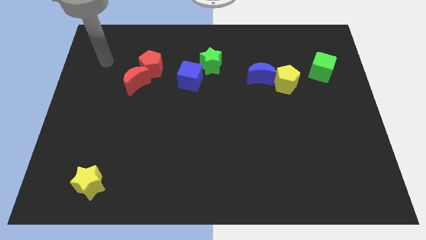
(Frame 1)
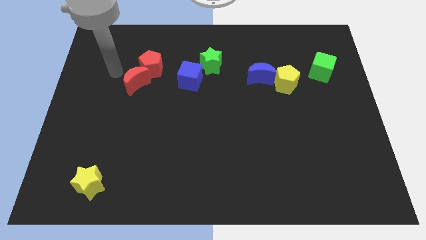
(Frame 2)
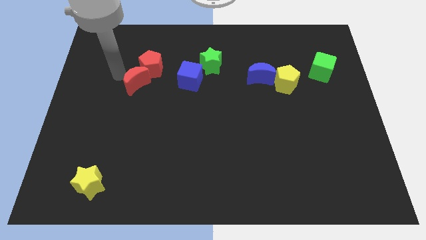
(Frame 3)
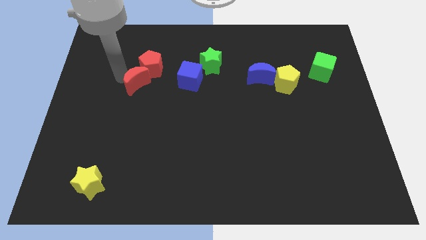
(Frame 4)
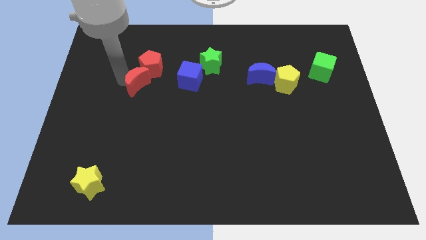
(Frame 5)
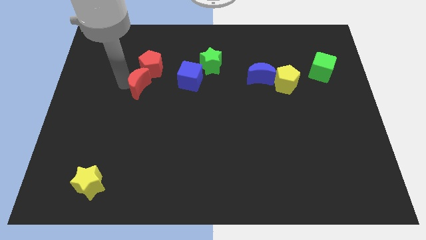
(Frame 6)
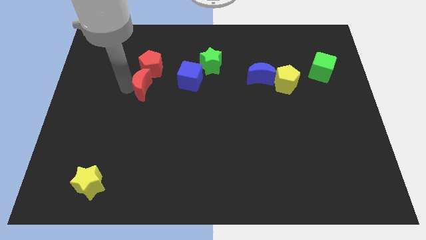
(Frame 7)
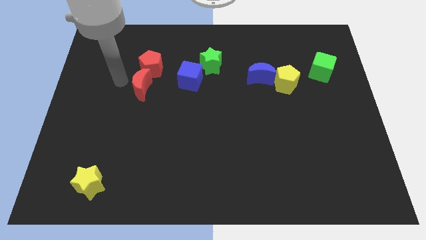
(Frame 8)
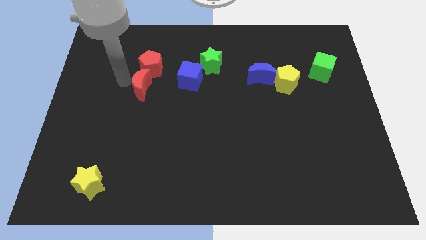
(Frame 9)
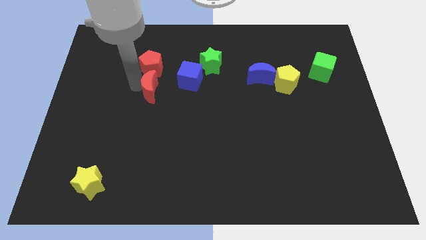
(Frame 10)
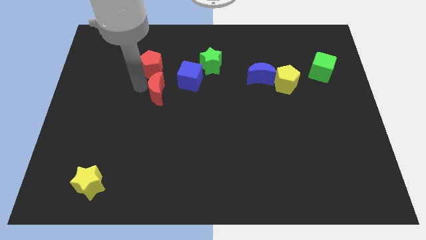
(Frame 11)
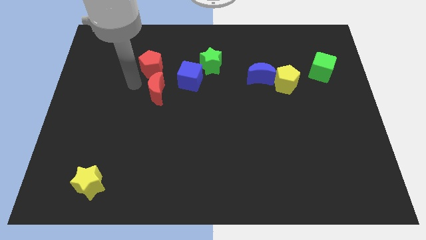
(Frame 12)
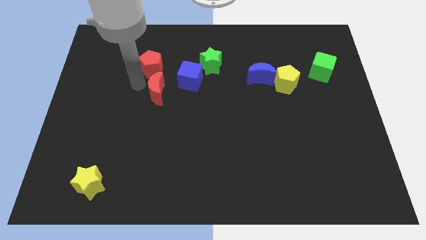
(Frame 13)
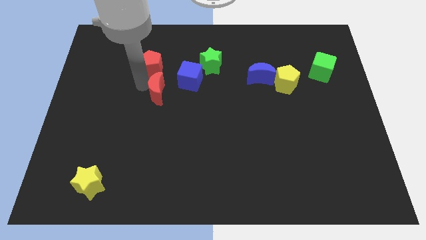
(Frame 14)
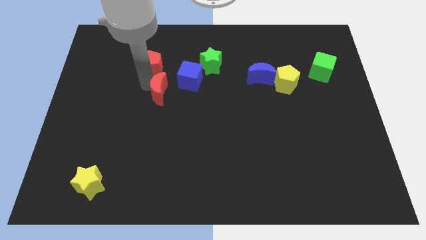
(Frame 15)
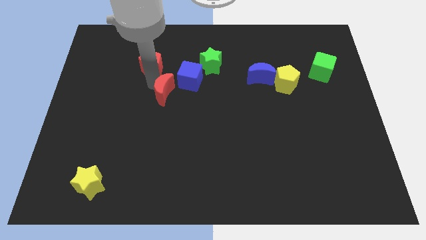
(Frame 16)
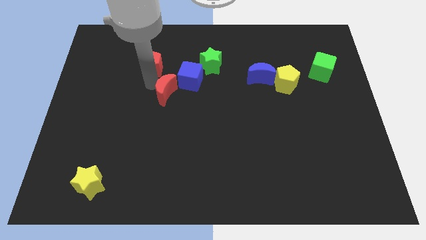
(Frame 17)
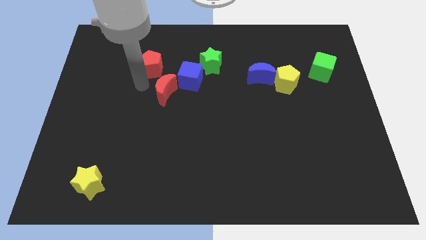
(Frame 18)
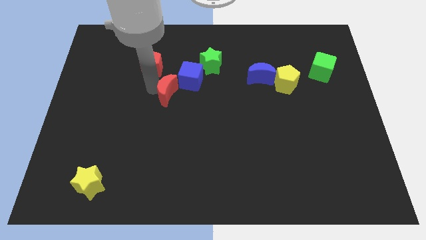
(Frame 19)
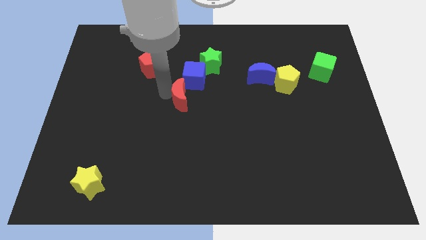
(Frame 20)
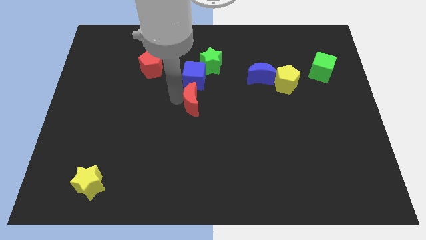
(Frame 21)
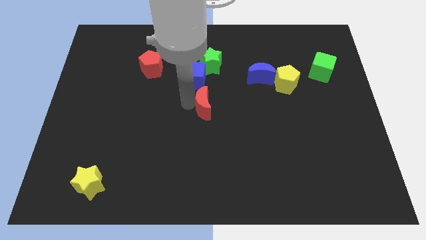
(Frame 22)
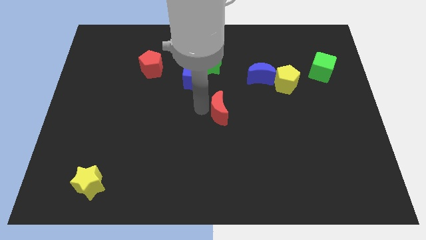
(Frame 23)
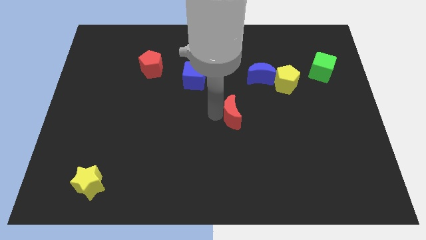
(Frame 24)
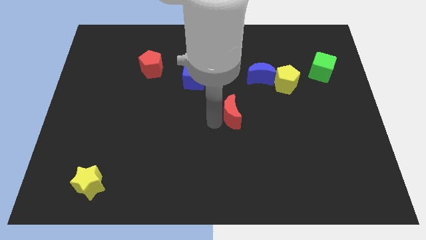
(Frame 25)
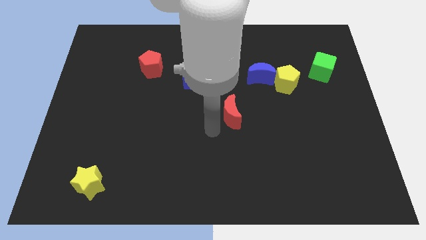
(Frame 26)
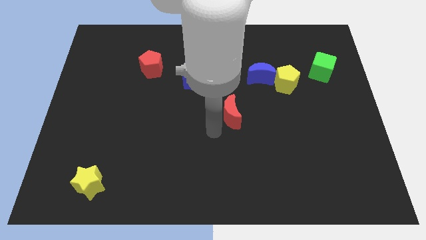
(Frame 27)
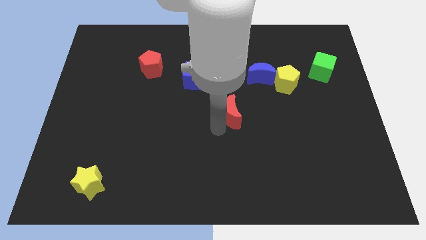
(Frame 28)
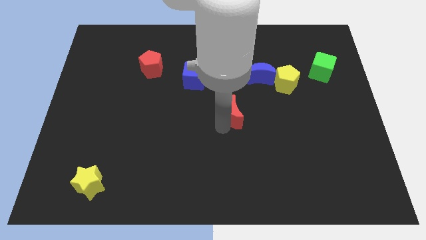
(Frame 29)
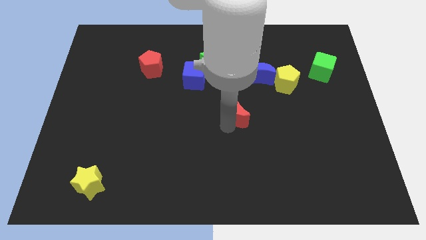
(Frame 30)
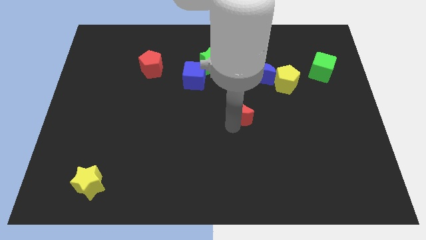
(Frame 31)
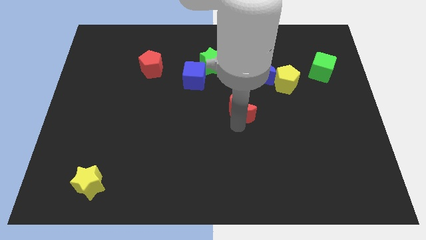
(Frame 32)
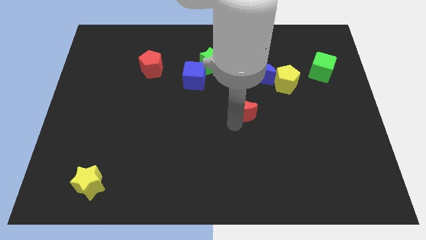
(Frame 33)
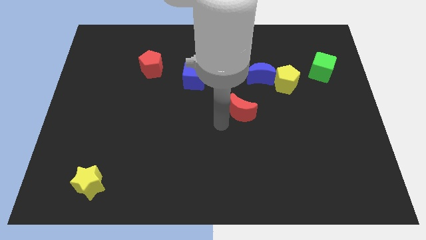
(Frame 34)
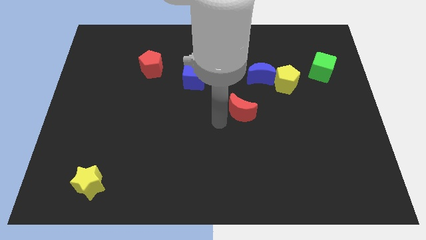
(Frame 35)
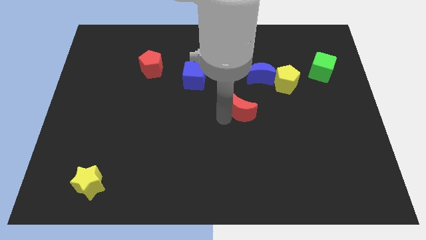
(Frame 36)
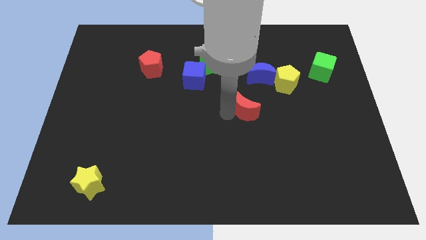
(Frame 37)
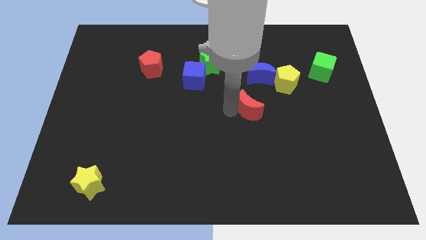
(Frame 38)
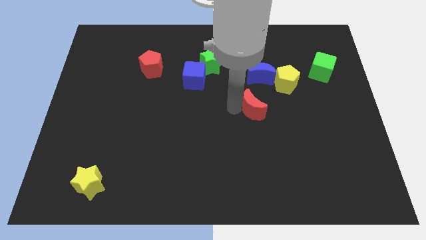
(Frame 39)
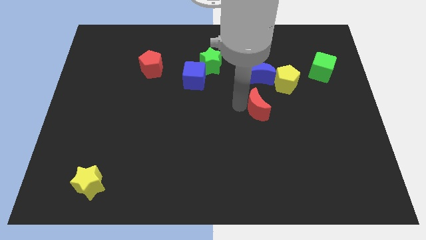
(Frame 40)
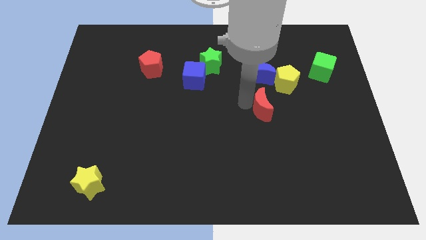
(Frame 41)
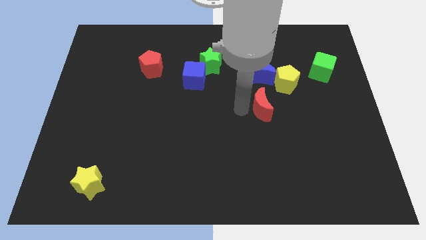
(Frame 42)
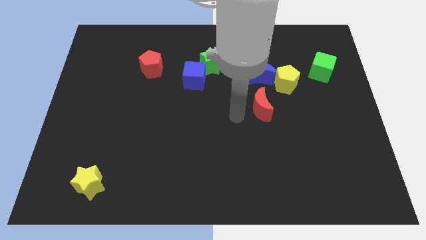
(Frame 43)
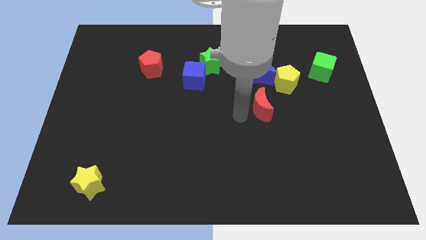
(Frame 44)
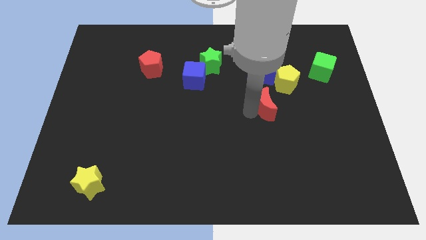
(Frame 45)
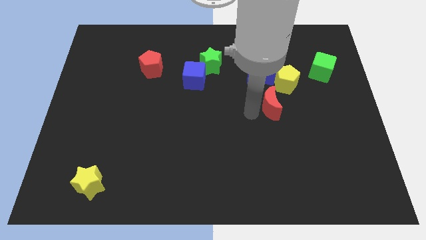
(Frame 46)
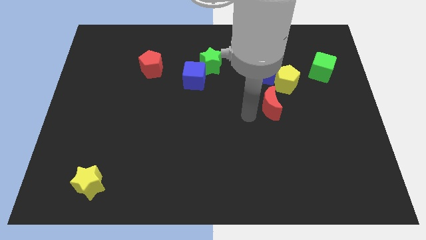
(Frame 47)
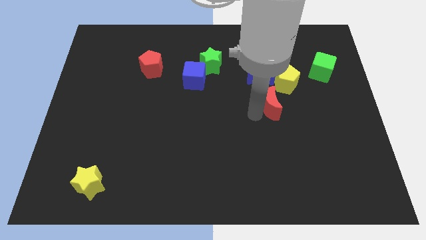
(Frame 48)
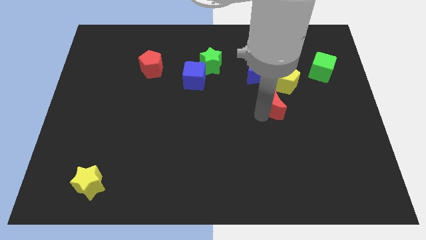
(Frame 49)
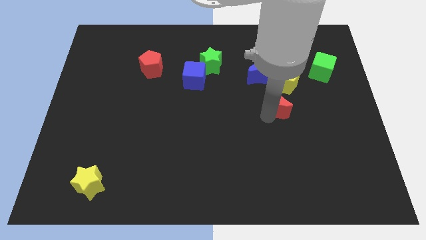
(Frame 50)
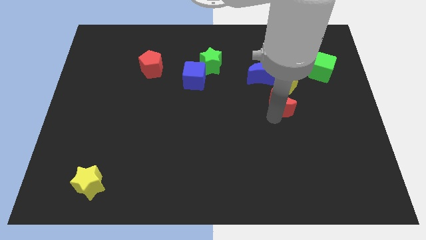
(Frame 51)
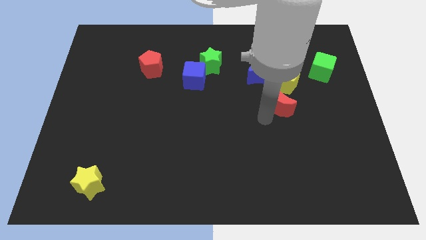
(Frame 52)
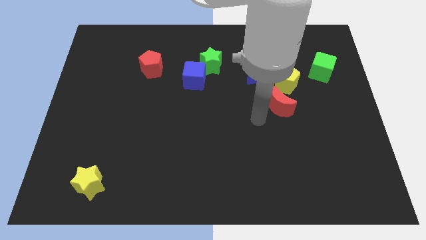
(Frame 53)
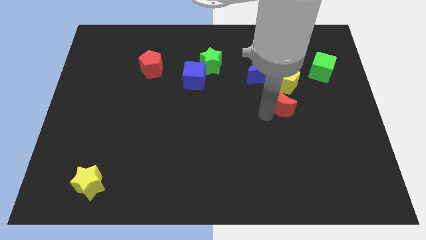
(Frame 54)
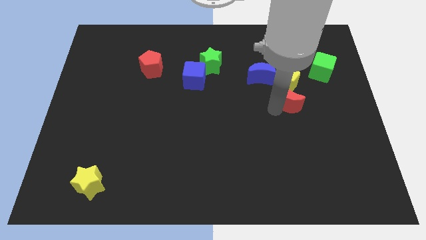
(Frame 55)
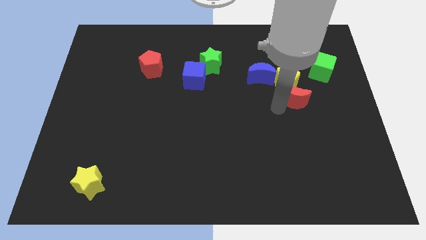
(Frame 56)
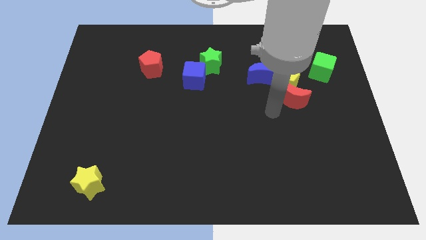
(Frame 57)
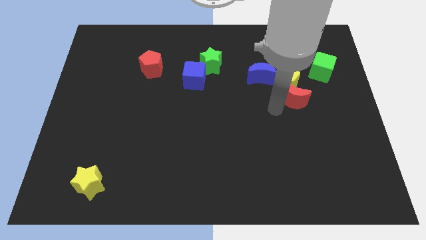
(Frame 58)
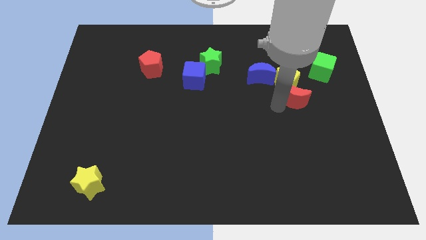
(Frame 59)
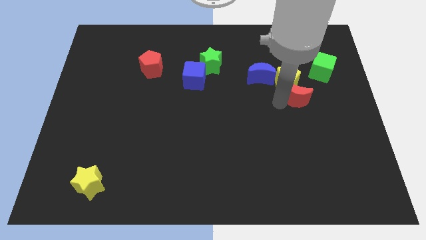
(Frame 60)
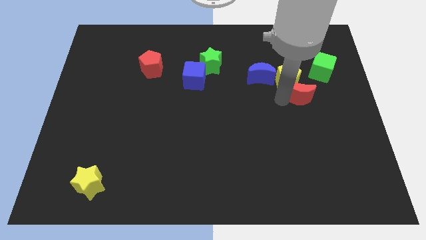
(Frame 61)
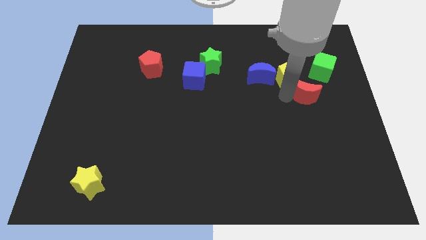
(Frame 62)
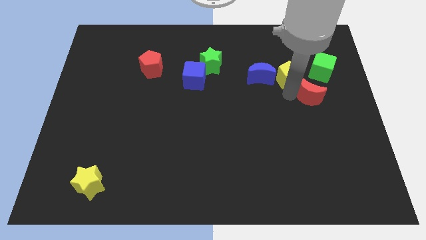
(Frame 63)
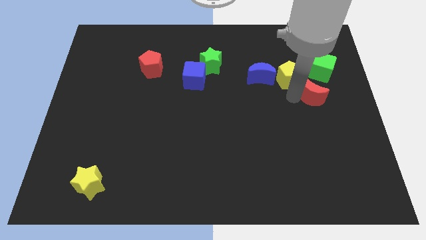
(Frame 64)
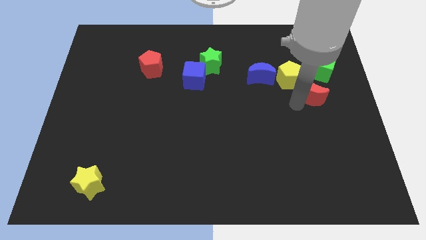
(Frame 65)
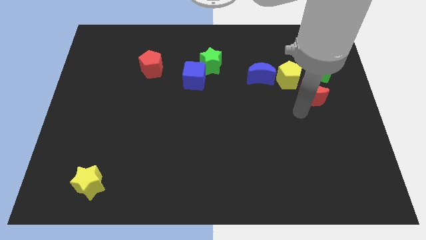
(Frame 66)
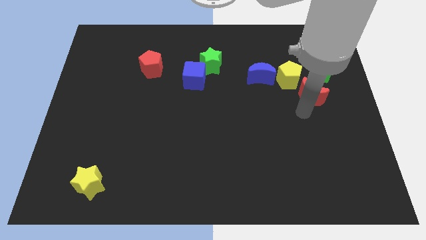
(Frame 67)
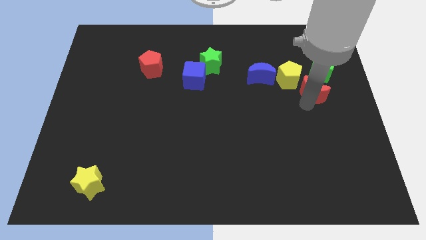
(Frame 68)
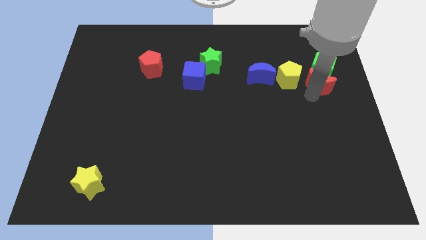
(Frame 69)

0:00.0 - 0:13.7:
move the red moon to the green cube
